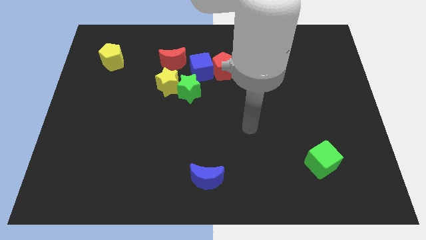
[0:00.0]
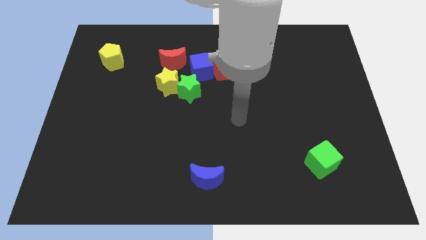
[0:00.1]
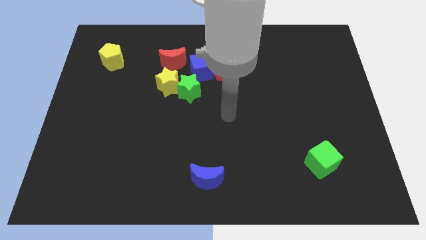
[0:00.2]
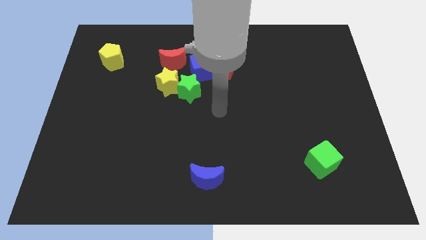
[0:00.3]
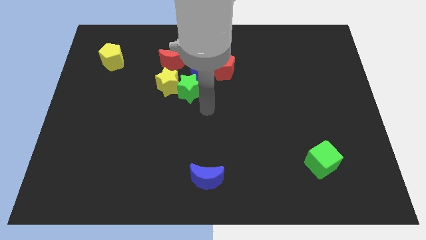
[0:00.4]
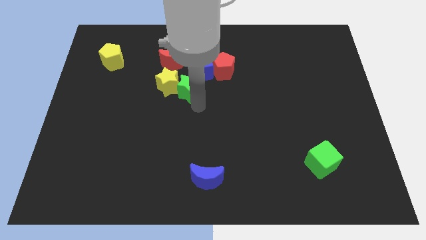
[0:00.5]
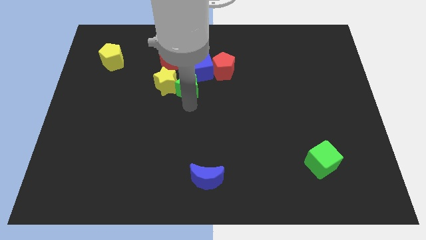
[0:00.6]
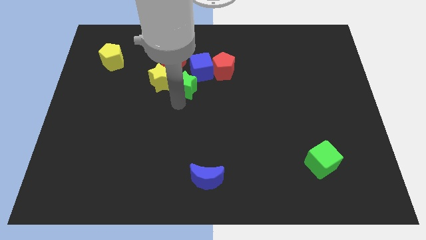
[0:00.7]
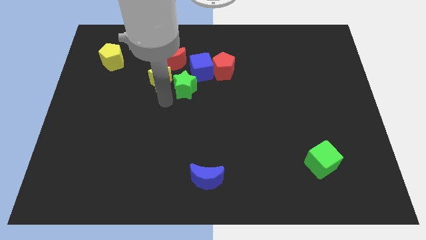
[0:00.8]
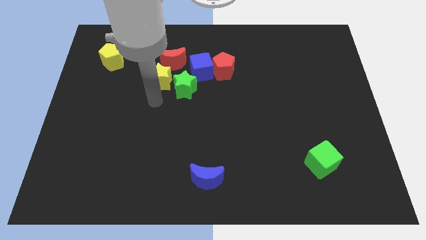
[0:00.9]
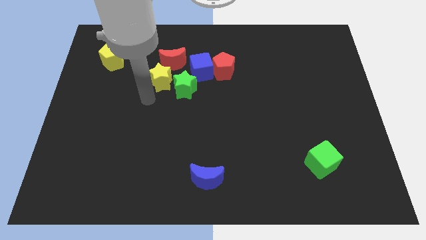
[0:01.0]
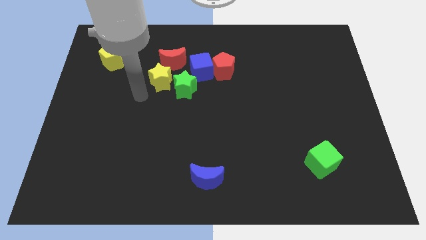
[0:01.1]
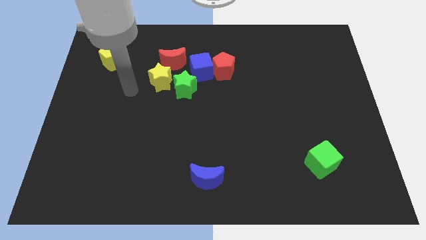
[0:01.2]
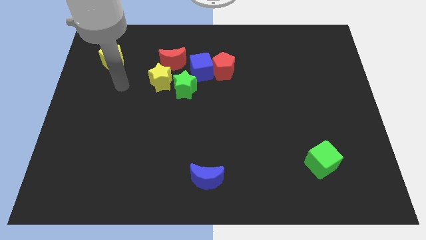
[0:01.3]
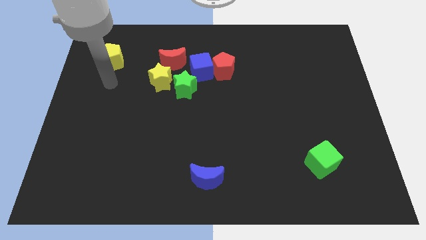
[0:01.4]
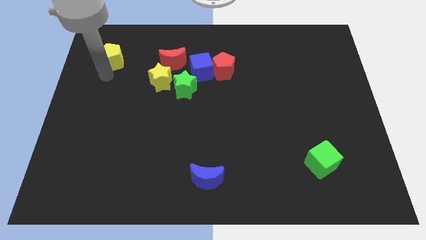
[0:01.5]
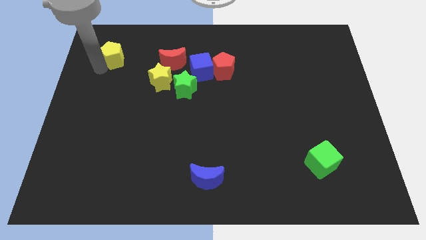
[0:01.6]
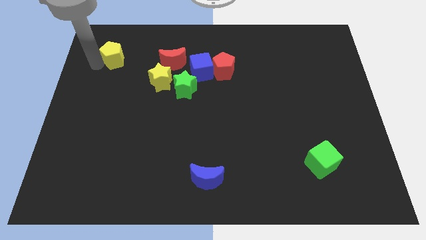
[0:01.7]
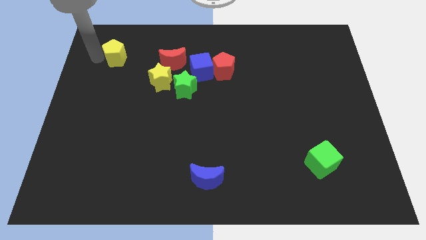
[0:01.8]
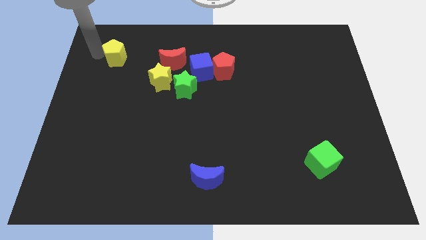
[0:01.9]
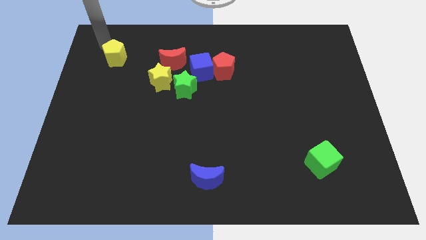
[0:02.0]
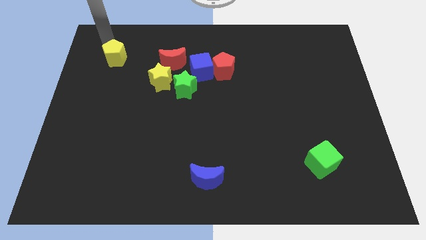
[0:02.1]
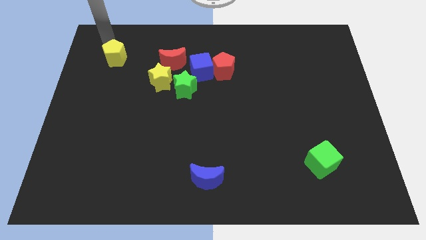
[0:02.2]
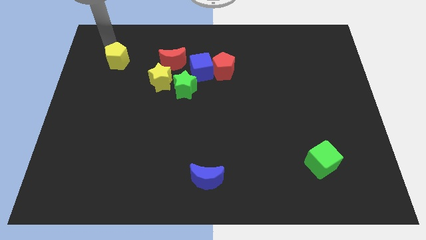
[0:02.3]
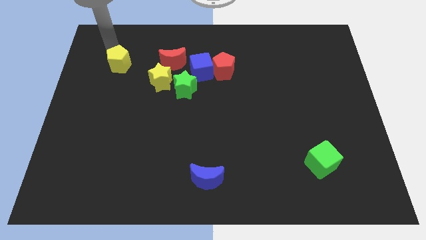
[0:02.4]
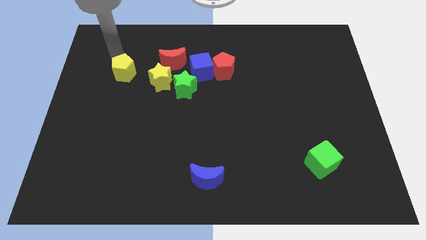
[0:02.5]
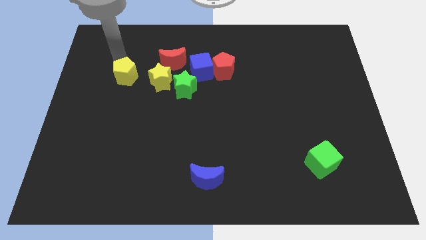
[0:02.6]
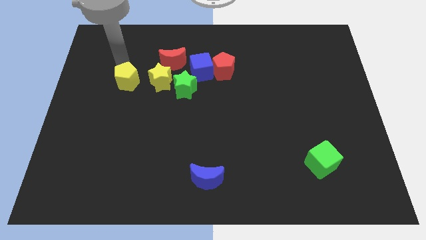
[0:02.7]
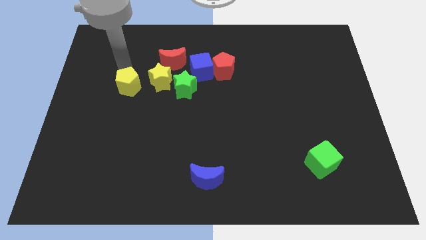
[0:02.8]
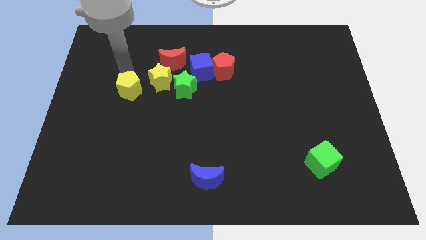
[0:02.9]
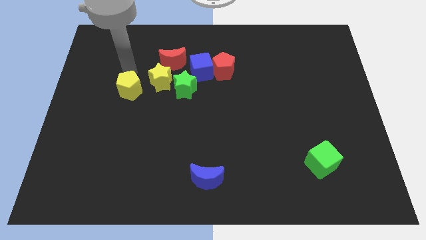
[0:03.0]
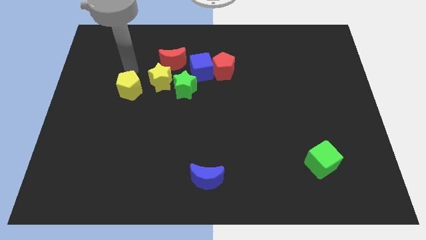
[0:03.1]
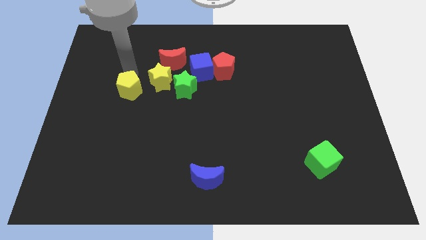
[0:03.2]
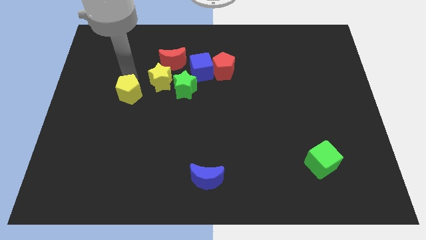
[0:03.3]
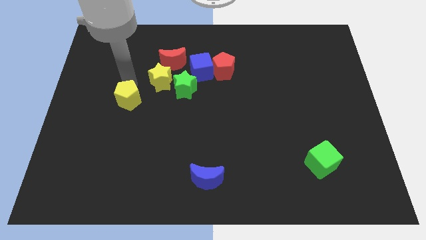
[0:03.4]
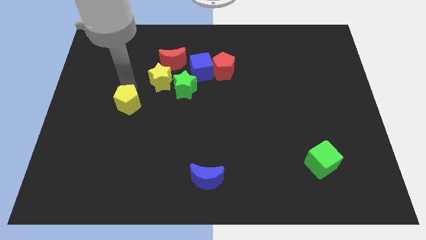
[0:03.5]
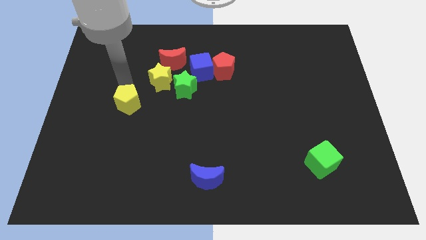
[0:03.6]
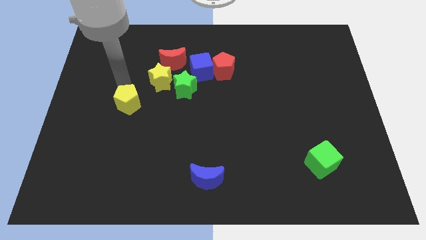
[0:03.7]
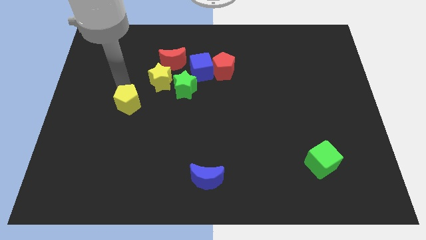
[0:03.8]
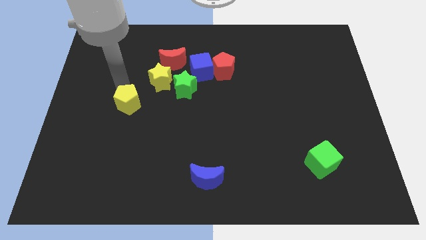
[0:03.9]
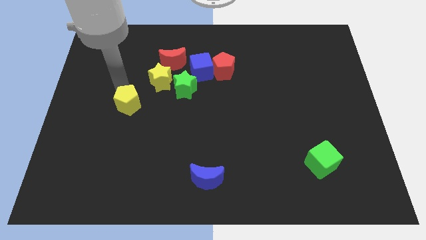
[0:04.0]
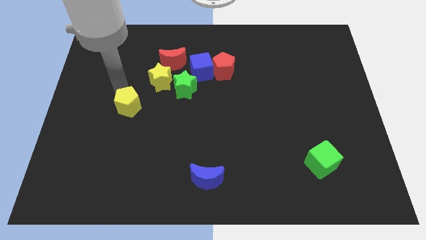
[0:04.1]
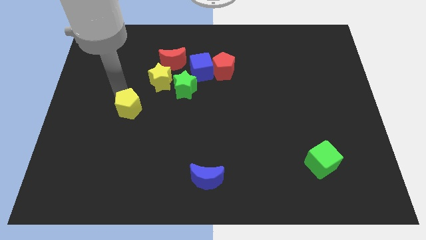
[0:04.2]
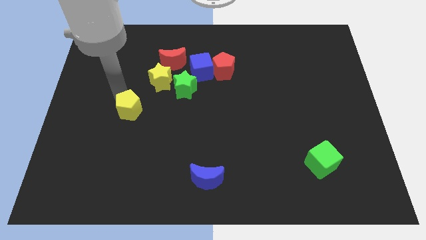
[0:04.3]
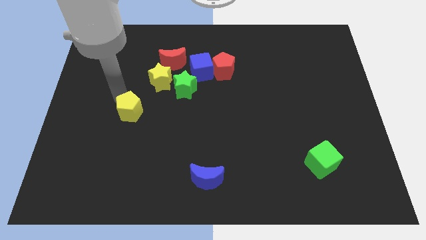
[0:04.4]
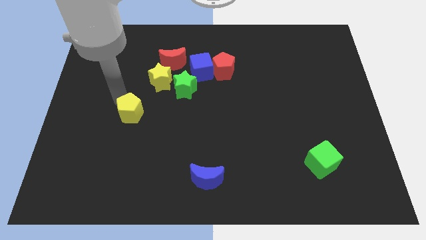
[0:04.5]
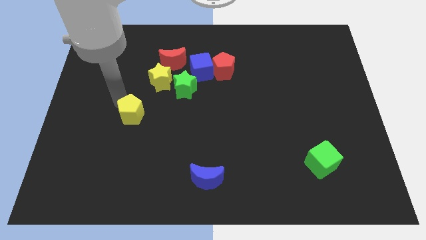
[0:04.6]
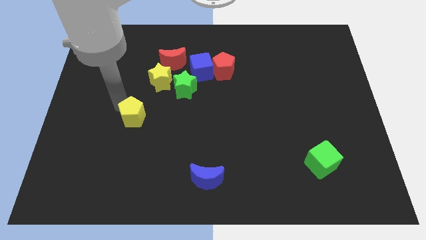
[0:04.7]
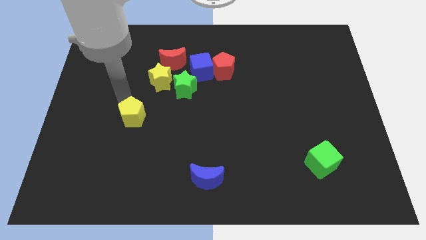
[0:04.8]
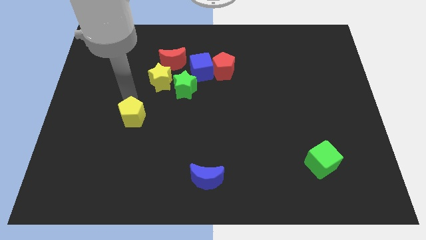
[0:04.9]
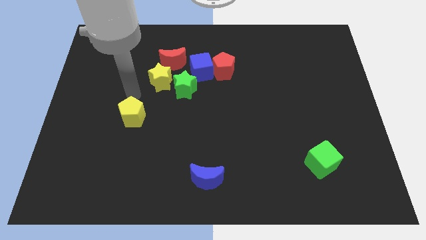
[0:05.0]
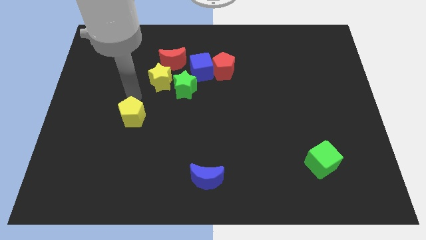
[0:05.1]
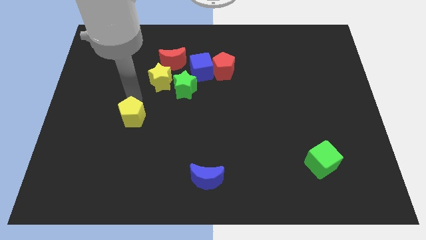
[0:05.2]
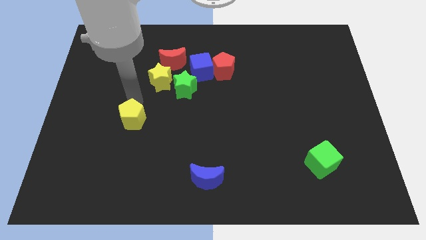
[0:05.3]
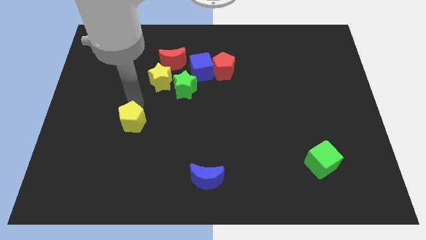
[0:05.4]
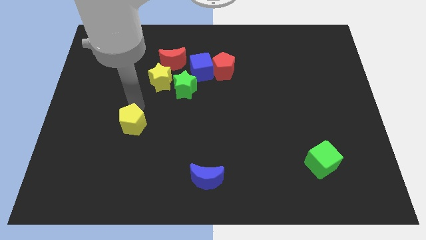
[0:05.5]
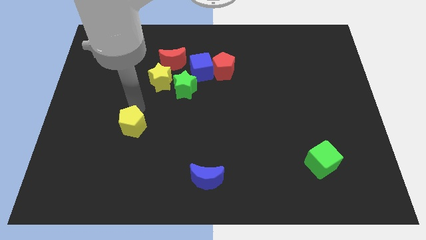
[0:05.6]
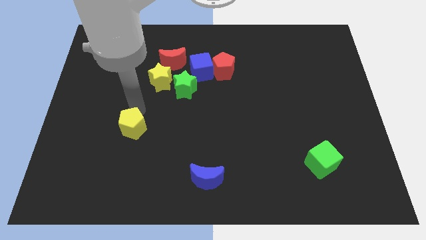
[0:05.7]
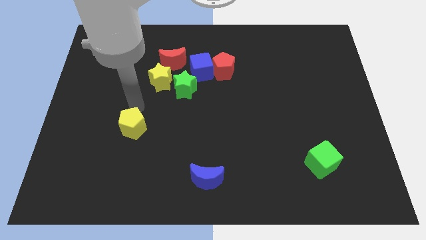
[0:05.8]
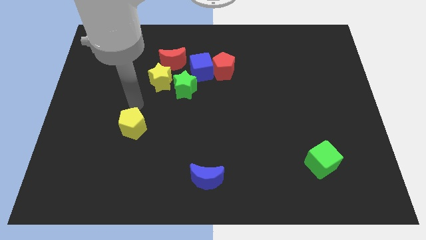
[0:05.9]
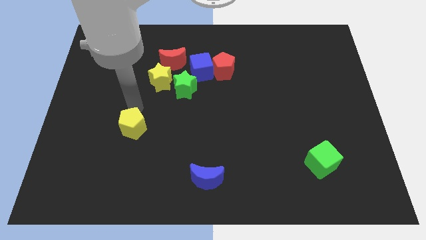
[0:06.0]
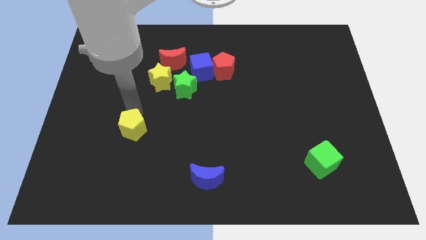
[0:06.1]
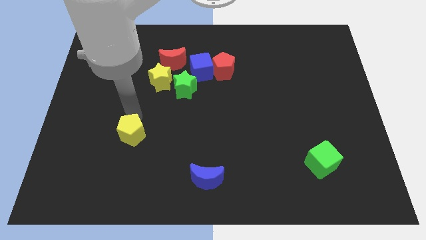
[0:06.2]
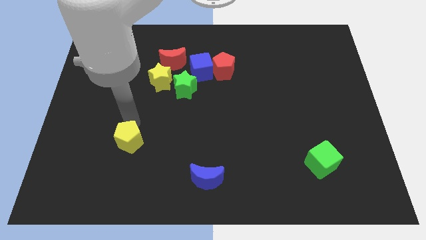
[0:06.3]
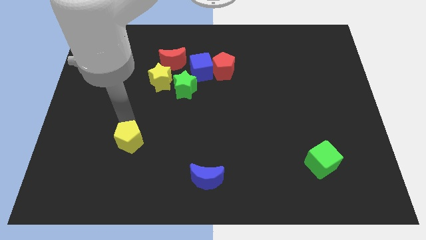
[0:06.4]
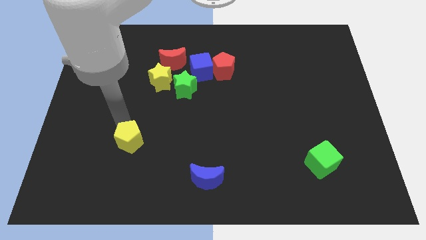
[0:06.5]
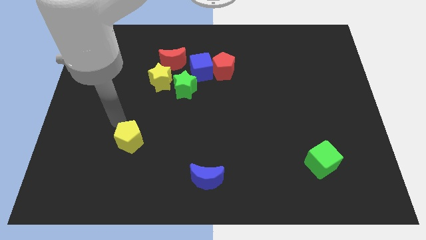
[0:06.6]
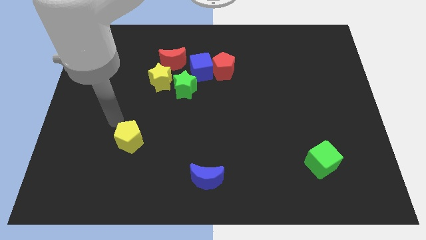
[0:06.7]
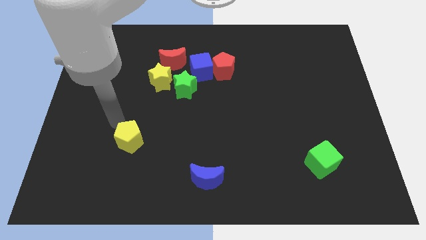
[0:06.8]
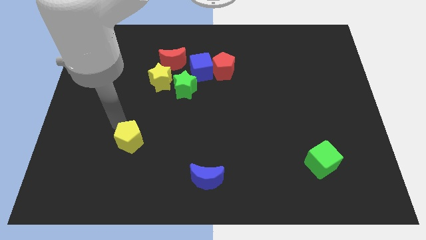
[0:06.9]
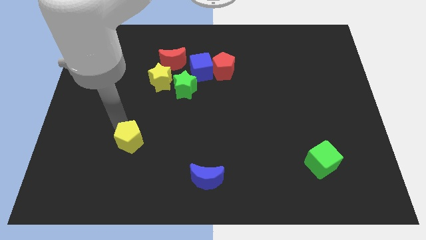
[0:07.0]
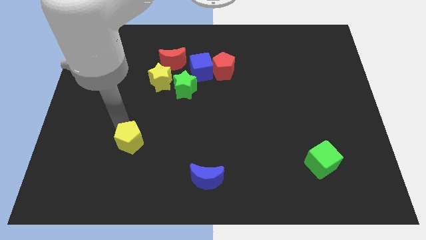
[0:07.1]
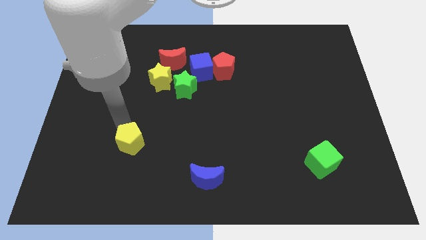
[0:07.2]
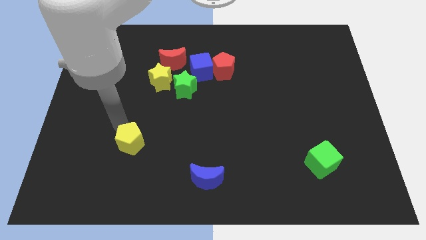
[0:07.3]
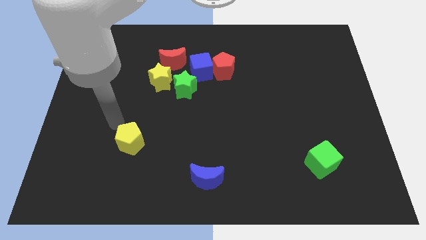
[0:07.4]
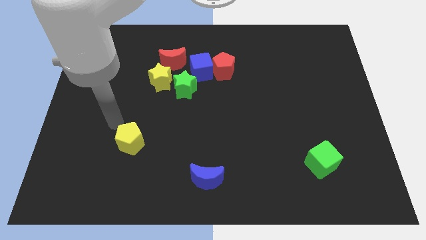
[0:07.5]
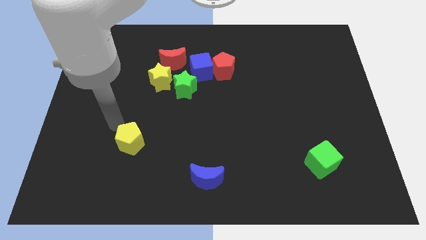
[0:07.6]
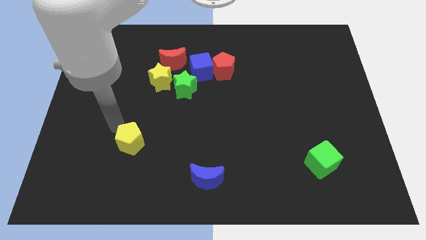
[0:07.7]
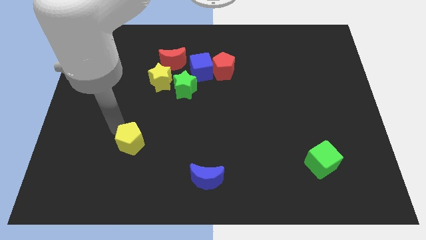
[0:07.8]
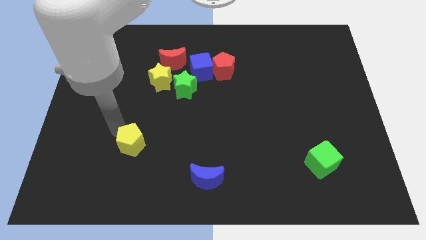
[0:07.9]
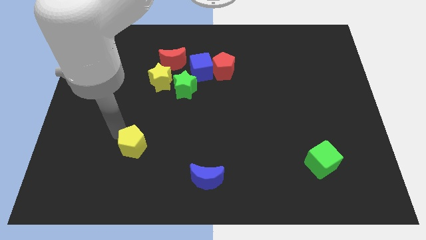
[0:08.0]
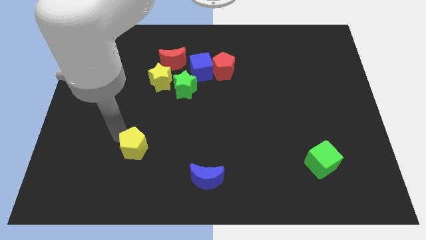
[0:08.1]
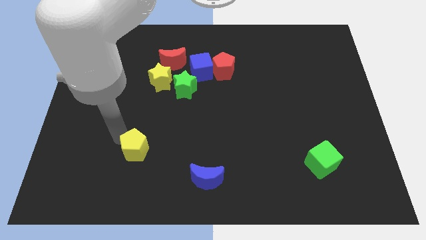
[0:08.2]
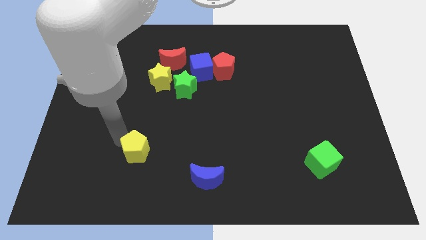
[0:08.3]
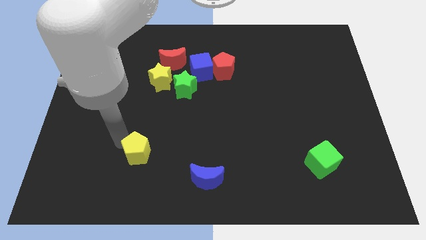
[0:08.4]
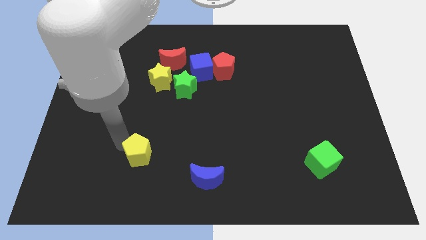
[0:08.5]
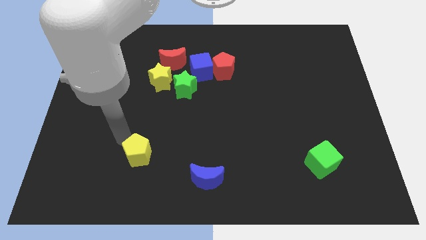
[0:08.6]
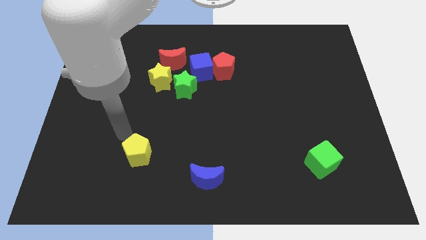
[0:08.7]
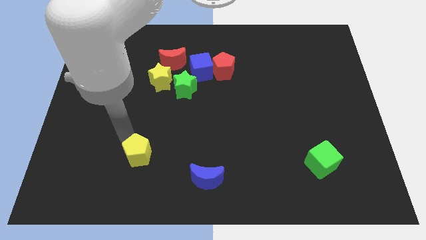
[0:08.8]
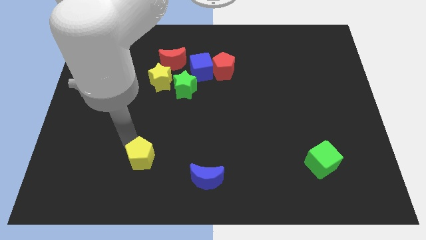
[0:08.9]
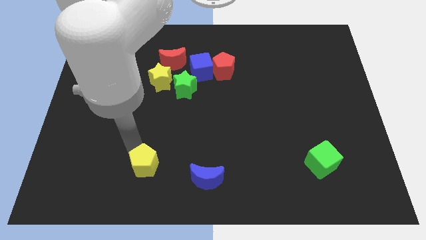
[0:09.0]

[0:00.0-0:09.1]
move the yellow pentagon to the left side of the blue moon
